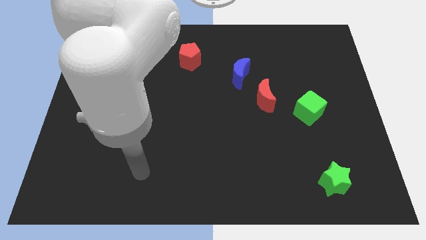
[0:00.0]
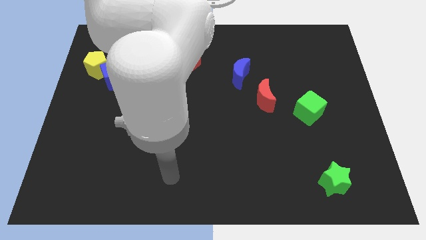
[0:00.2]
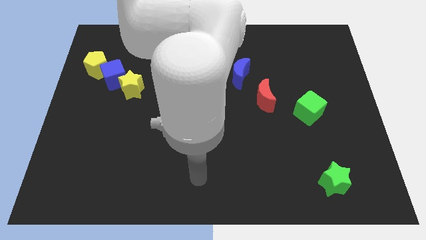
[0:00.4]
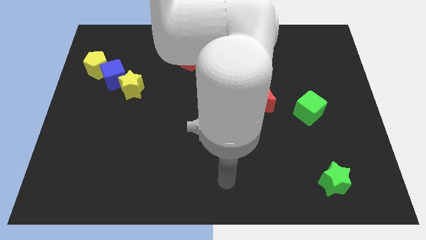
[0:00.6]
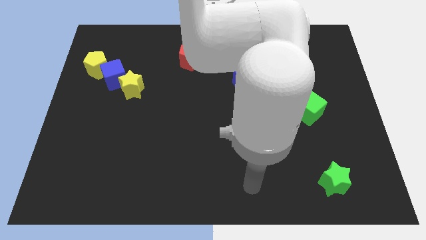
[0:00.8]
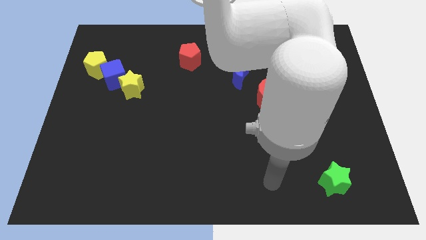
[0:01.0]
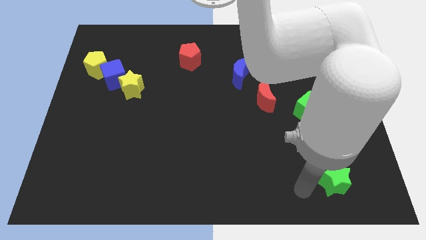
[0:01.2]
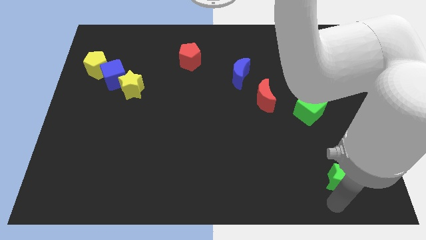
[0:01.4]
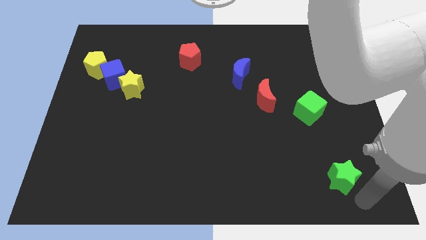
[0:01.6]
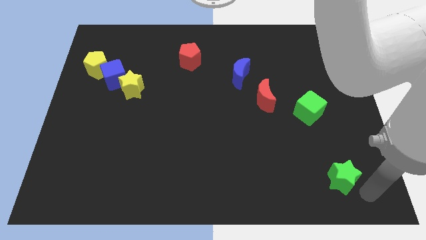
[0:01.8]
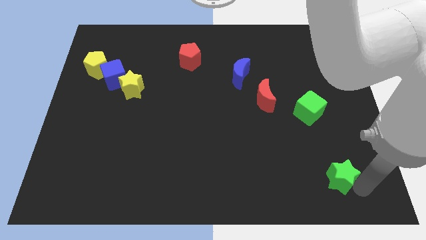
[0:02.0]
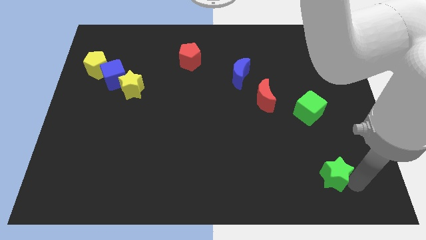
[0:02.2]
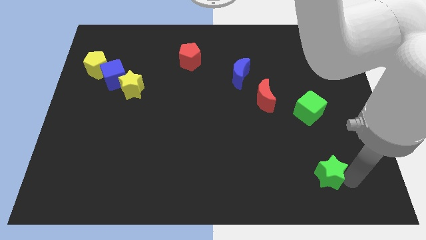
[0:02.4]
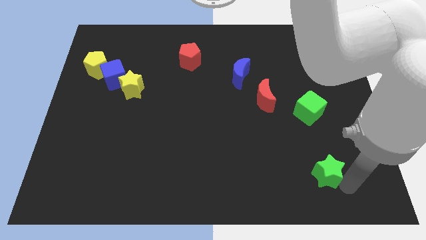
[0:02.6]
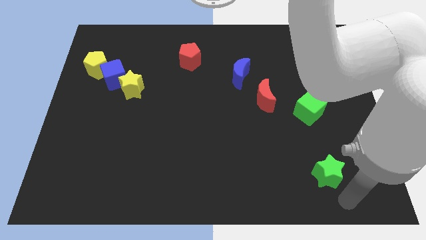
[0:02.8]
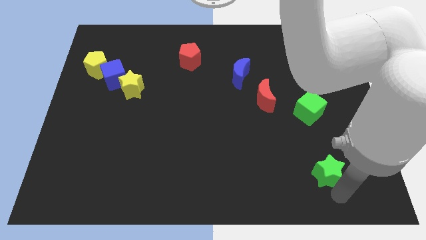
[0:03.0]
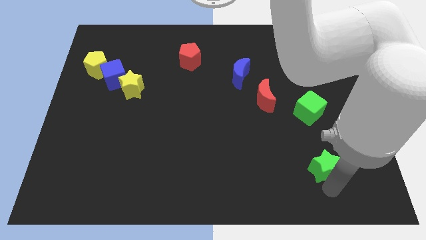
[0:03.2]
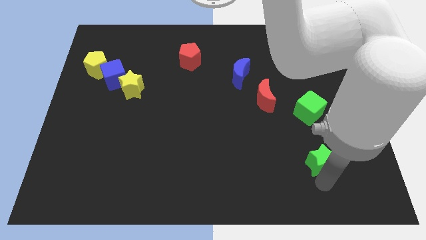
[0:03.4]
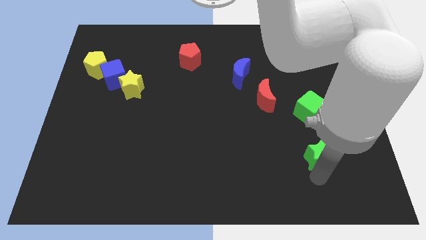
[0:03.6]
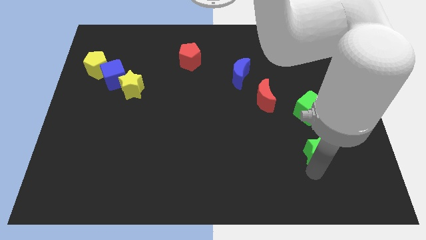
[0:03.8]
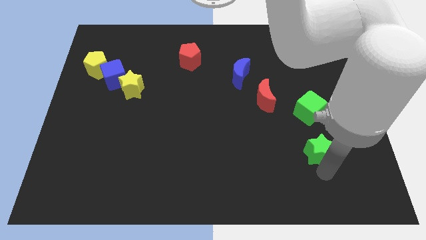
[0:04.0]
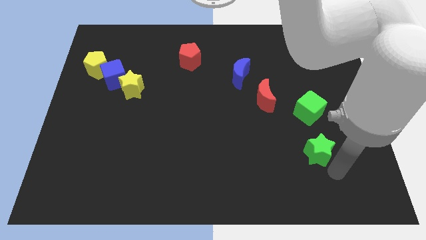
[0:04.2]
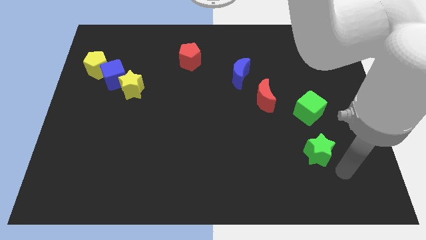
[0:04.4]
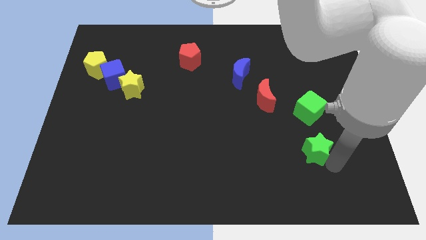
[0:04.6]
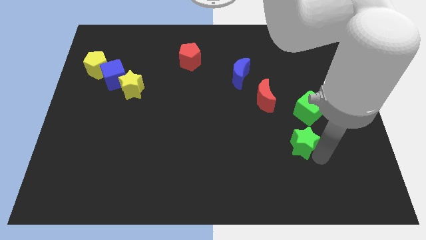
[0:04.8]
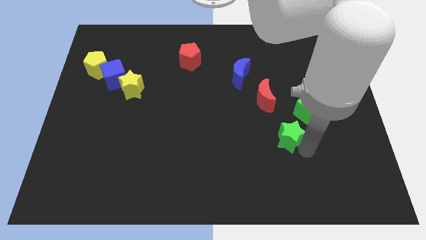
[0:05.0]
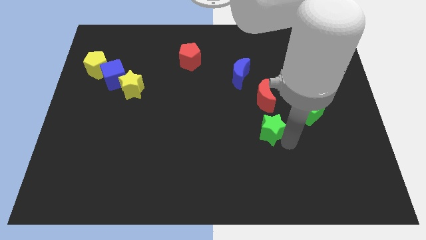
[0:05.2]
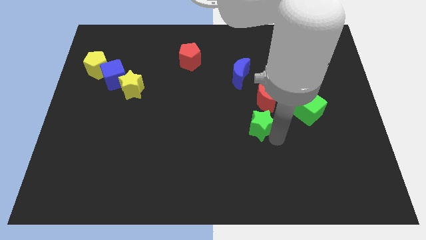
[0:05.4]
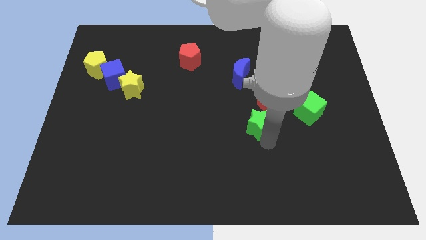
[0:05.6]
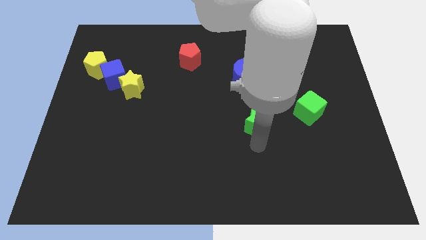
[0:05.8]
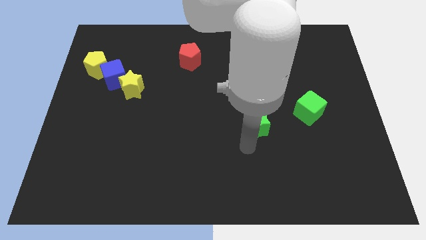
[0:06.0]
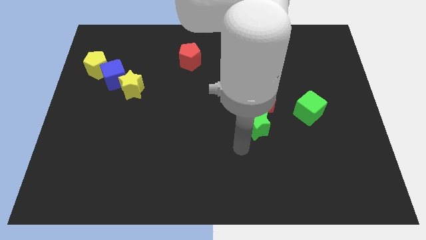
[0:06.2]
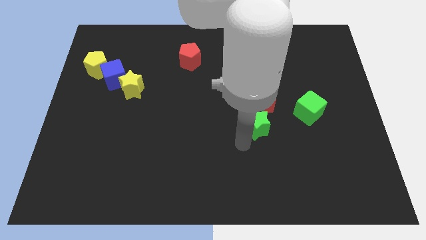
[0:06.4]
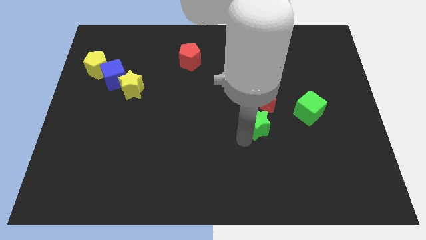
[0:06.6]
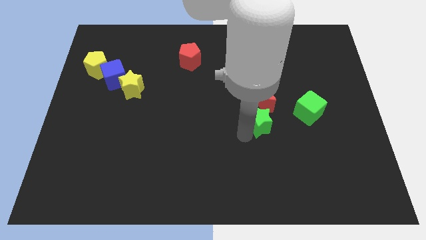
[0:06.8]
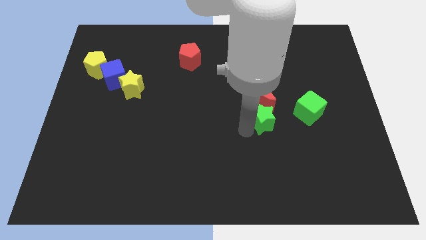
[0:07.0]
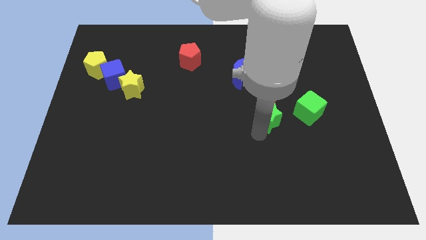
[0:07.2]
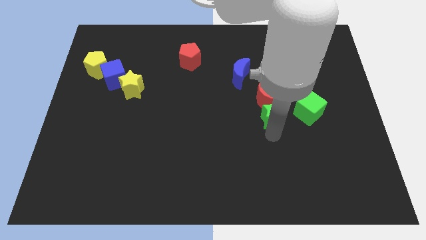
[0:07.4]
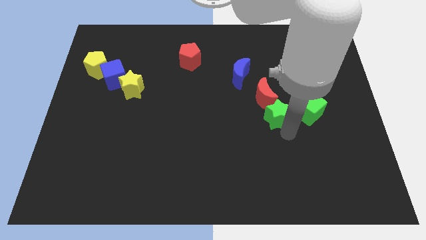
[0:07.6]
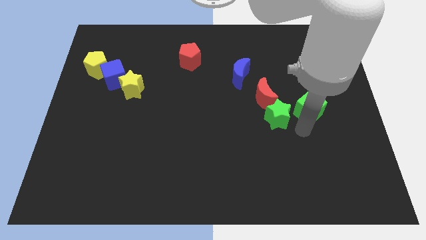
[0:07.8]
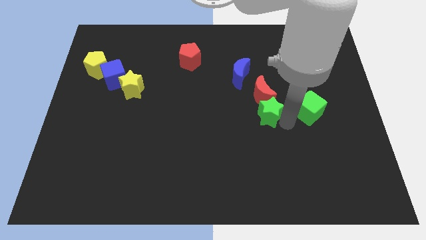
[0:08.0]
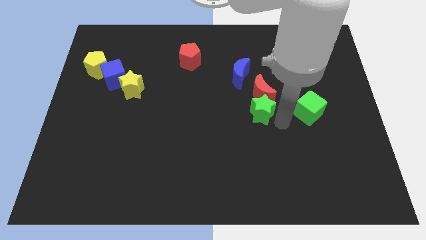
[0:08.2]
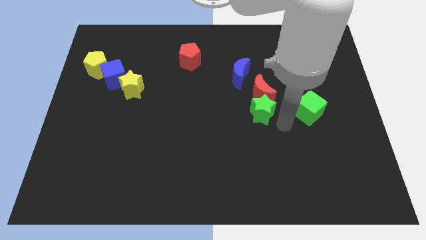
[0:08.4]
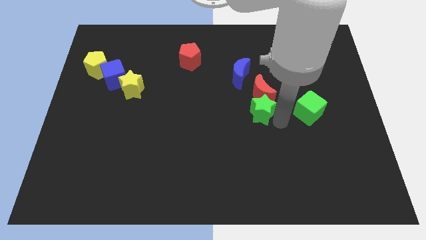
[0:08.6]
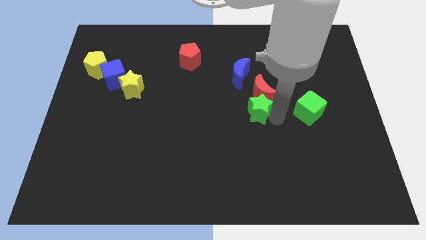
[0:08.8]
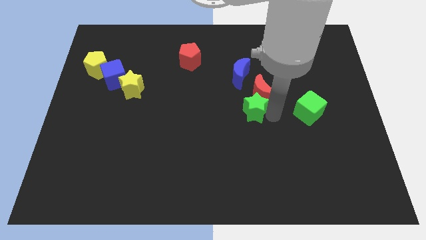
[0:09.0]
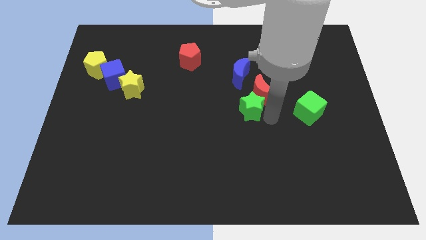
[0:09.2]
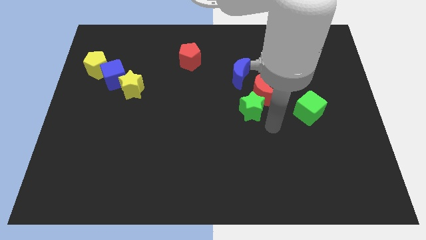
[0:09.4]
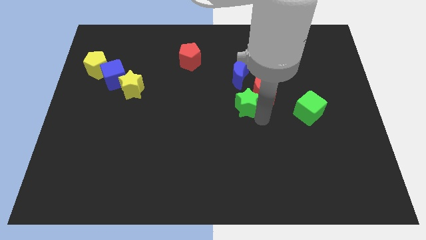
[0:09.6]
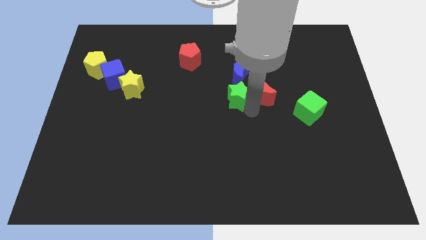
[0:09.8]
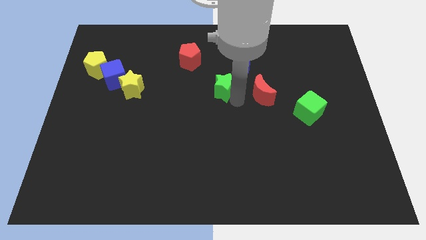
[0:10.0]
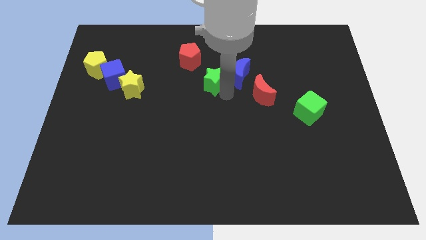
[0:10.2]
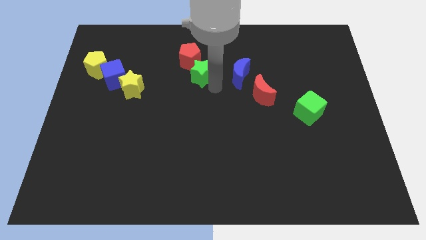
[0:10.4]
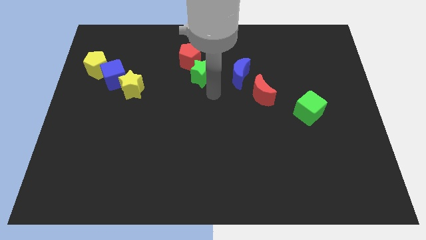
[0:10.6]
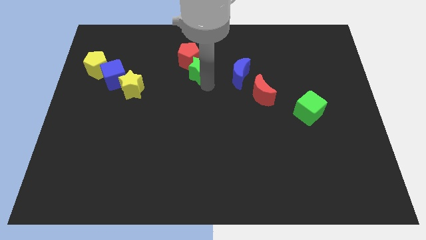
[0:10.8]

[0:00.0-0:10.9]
push the green star towards the red pentagon

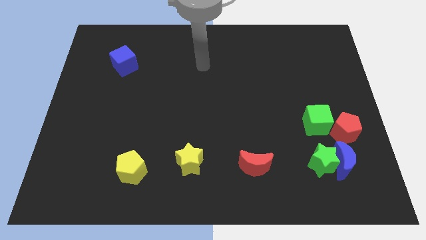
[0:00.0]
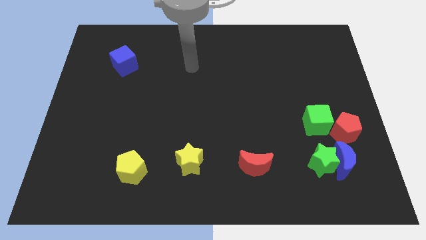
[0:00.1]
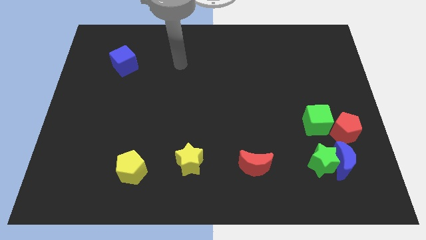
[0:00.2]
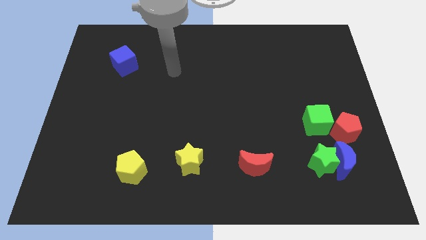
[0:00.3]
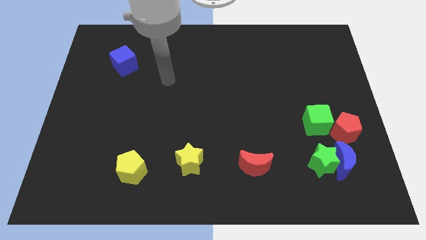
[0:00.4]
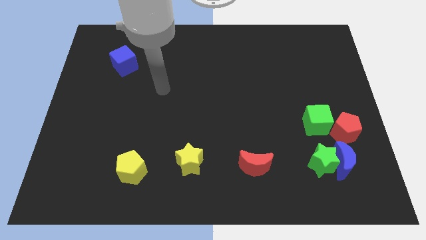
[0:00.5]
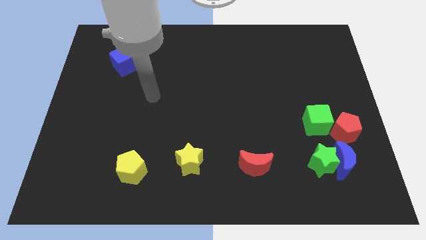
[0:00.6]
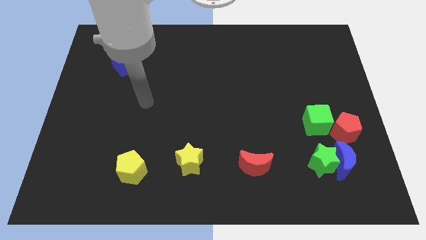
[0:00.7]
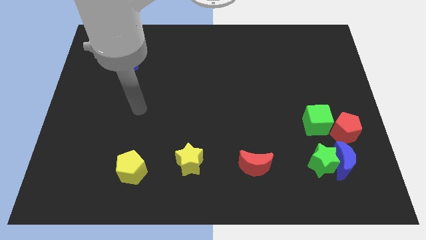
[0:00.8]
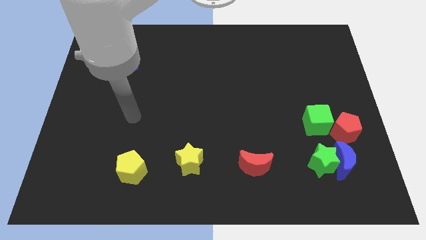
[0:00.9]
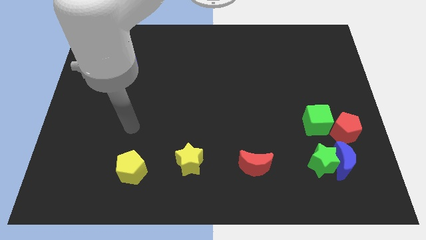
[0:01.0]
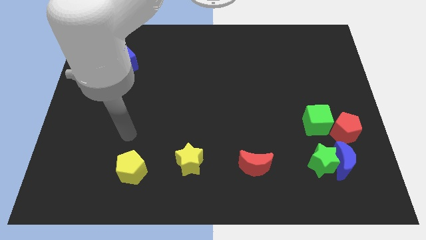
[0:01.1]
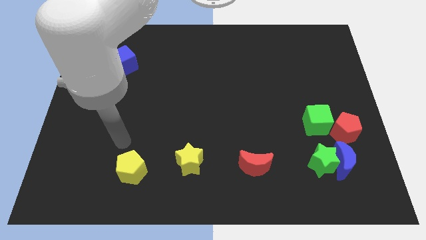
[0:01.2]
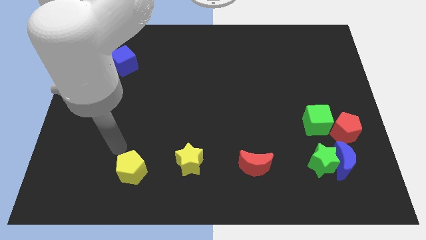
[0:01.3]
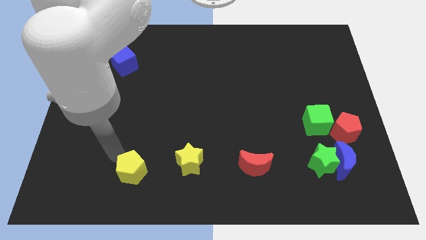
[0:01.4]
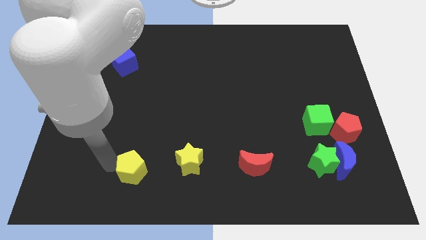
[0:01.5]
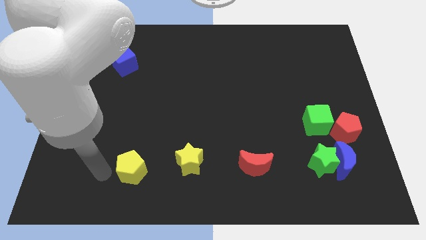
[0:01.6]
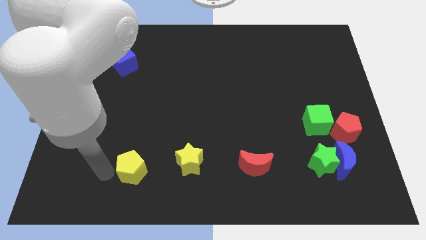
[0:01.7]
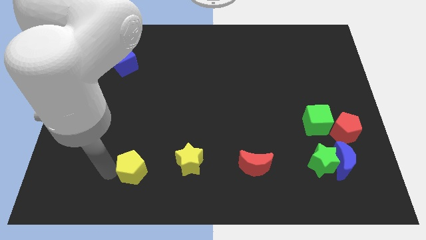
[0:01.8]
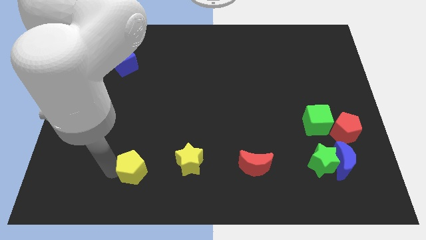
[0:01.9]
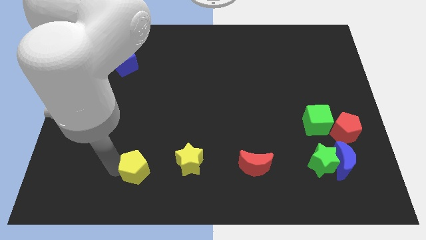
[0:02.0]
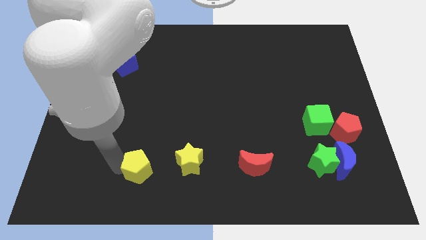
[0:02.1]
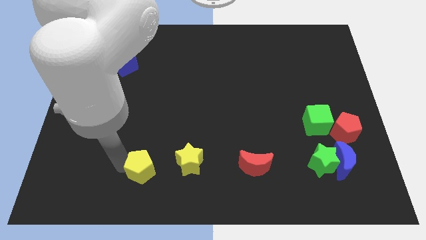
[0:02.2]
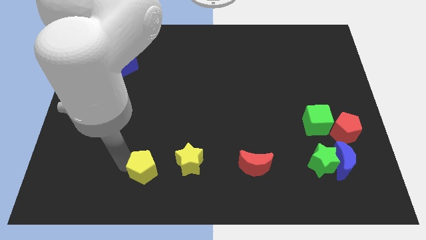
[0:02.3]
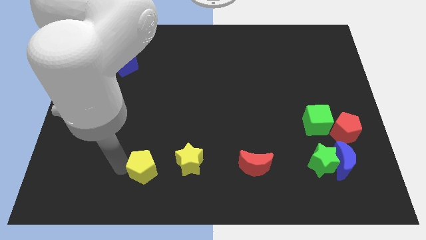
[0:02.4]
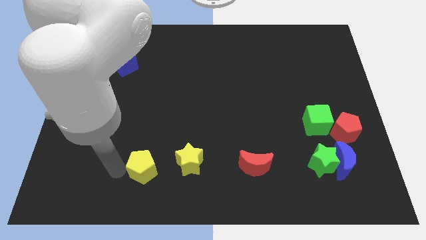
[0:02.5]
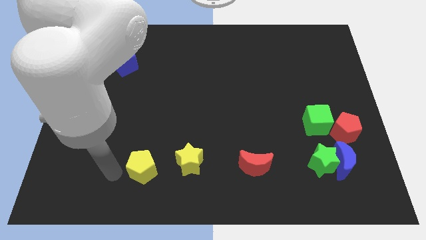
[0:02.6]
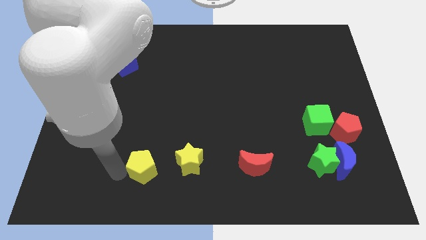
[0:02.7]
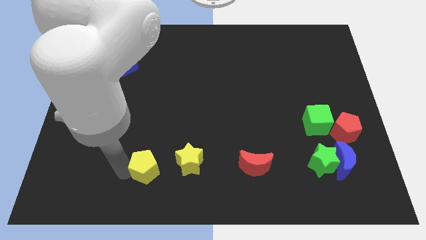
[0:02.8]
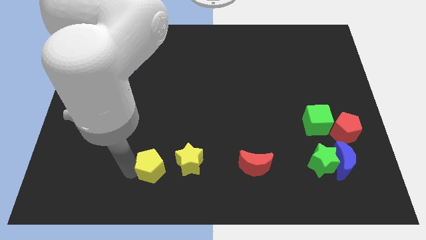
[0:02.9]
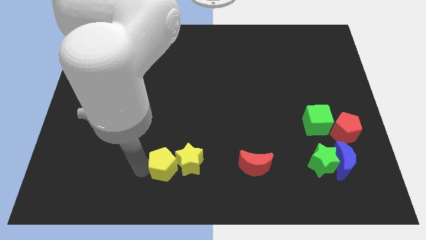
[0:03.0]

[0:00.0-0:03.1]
put the yellow pentagon next to the yellow star
